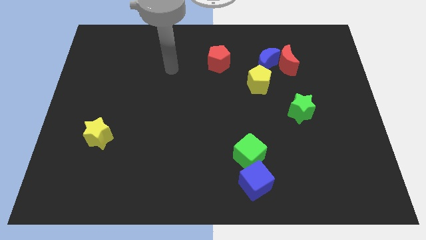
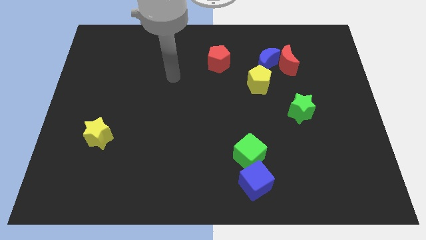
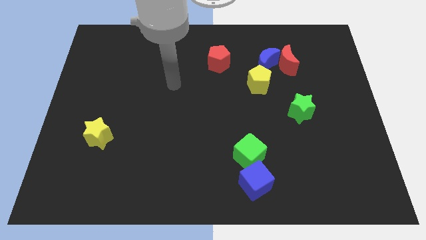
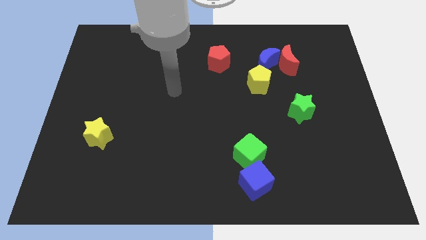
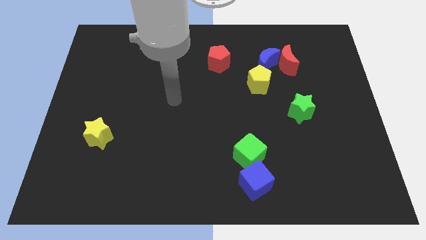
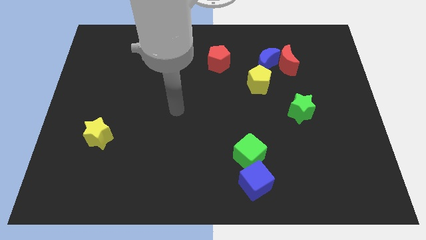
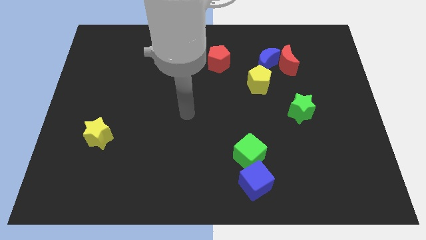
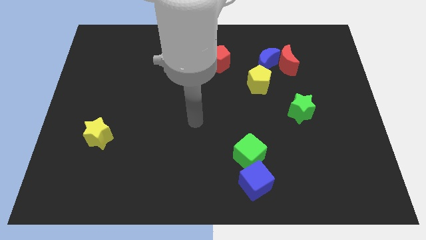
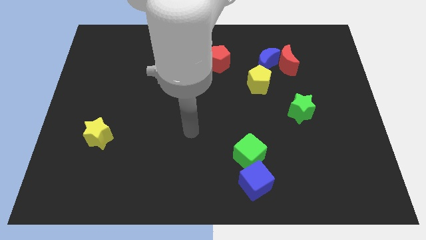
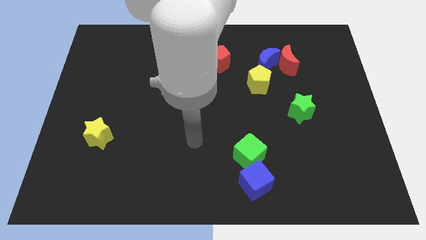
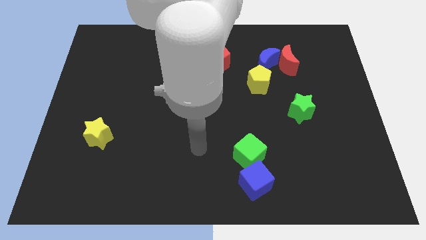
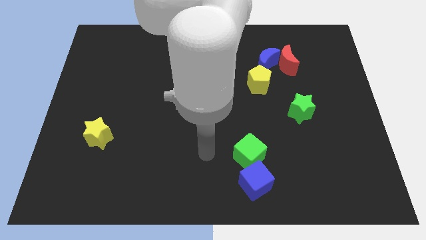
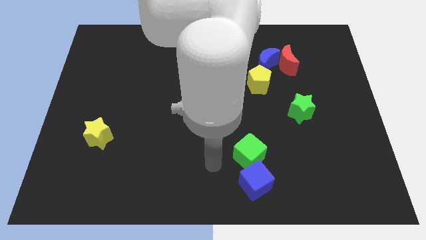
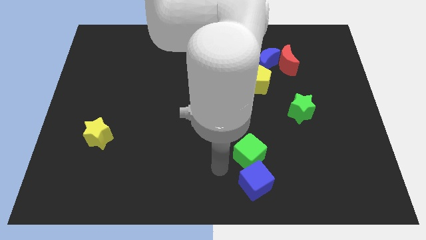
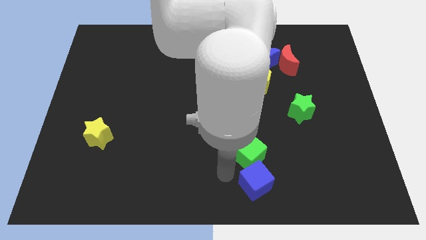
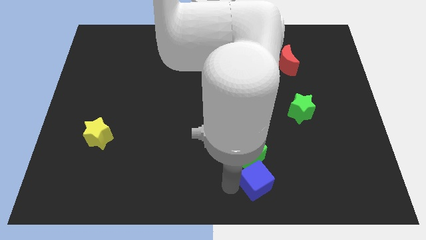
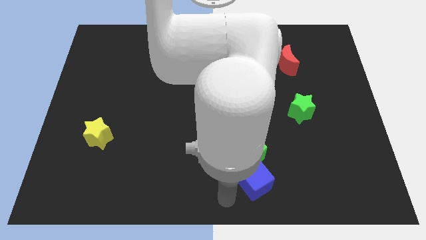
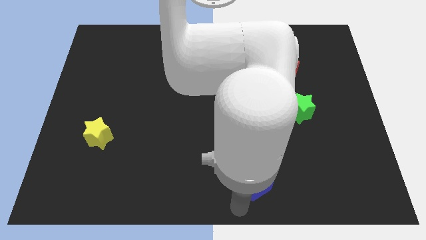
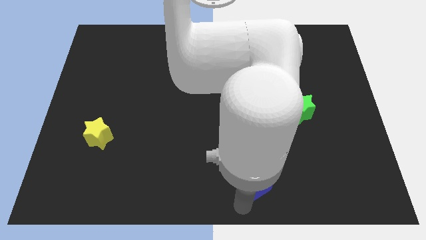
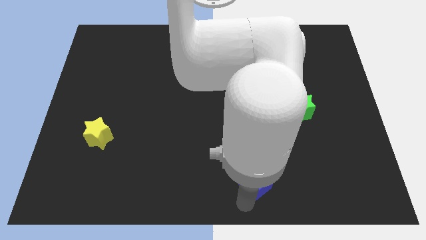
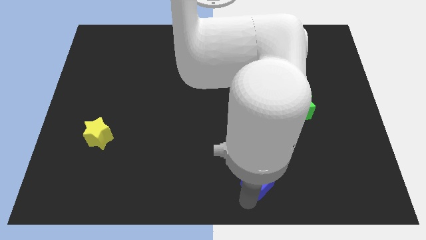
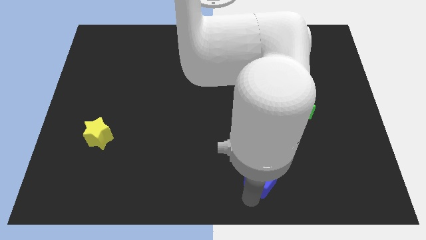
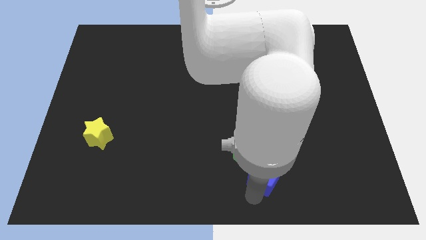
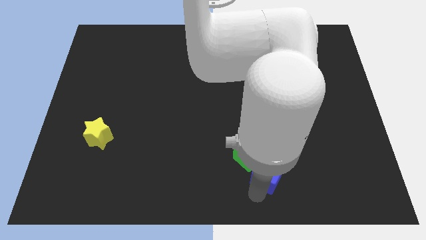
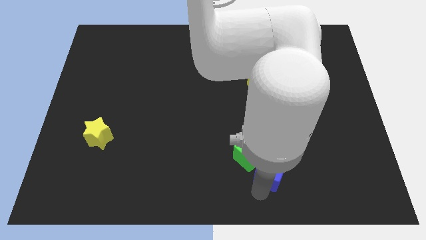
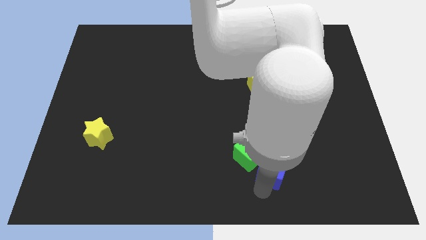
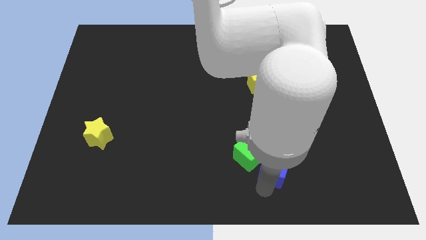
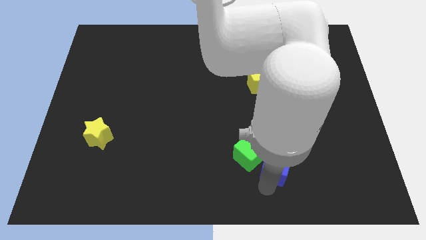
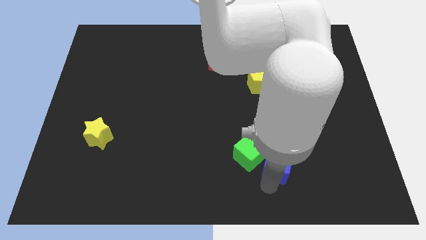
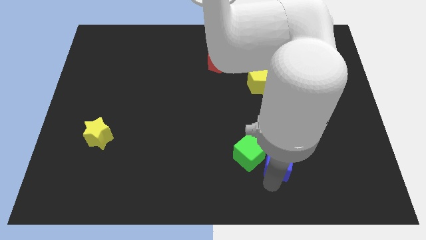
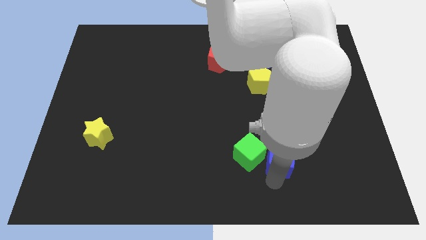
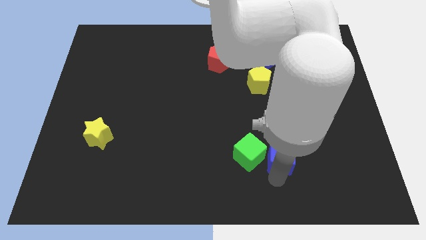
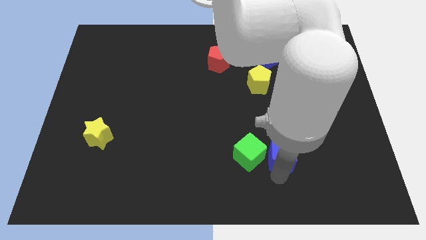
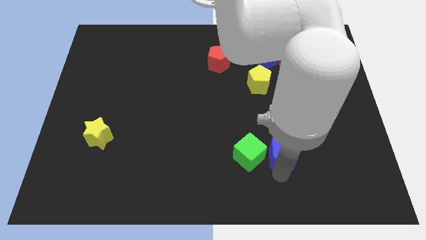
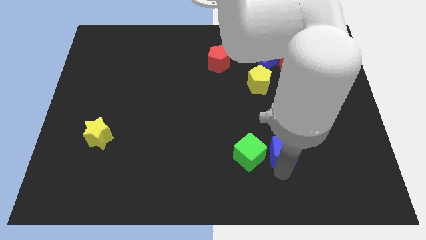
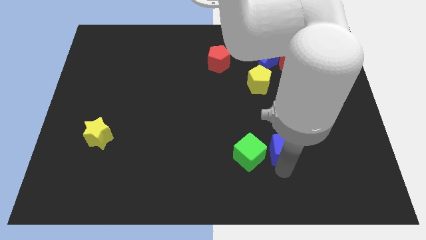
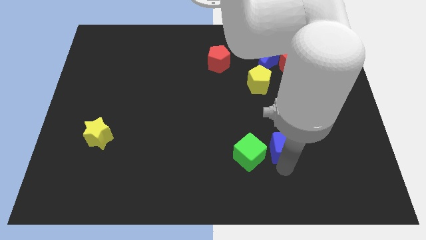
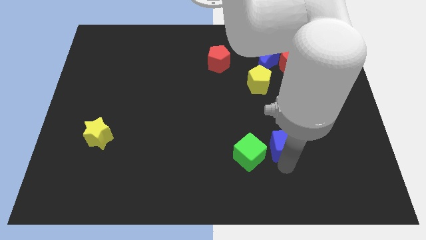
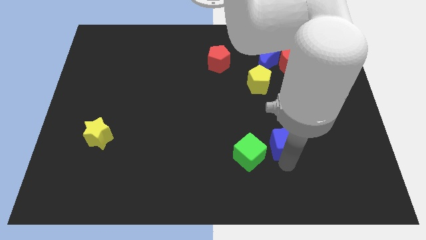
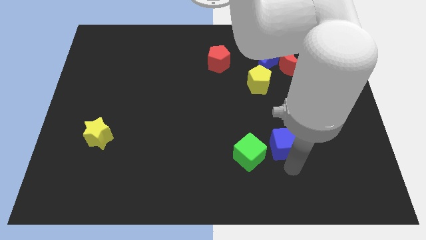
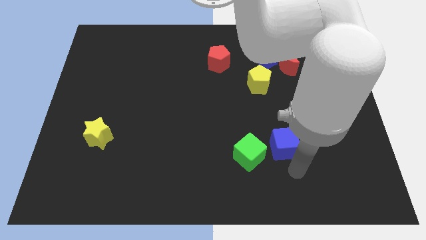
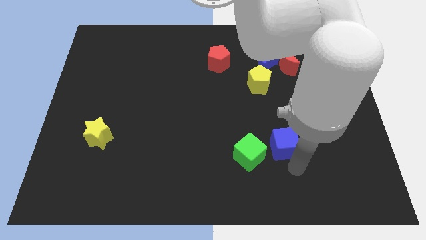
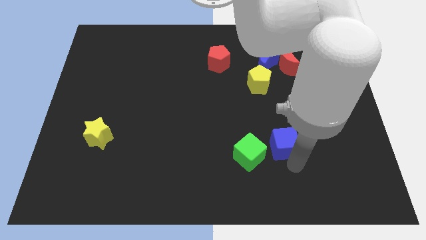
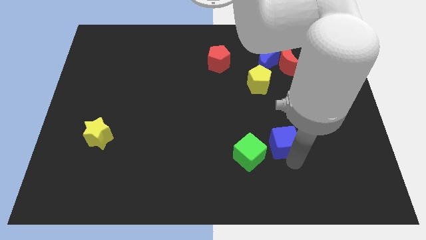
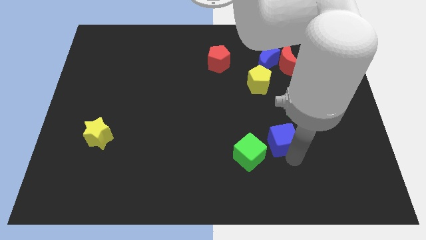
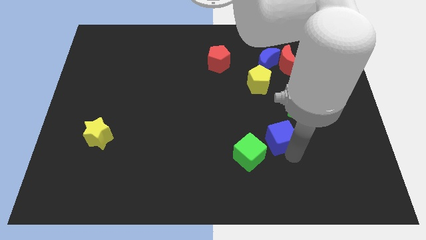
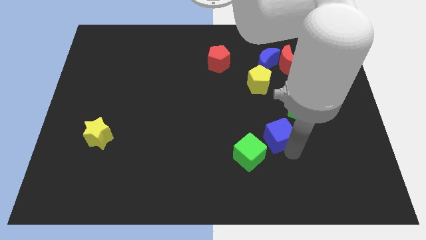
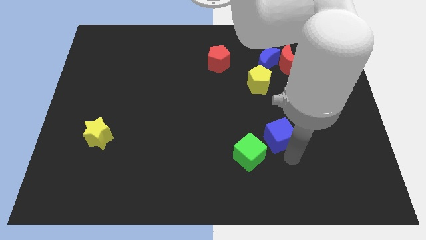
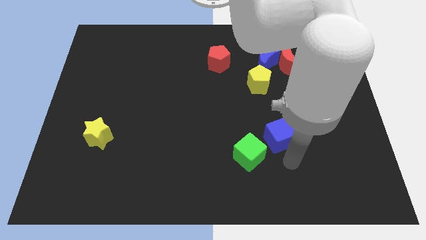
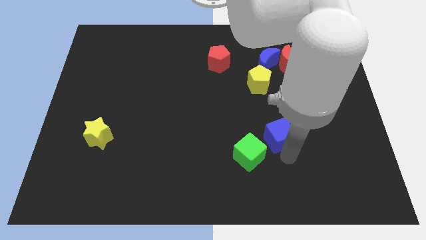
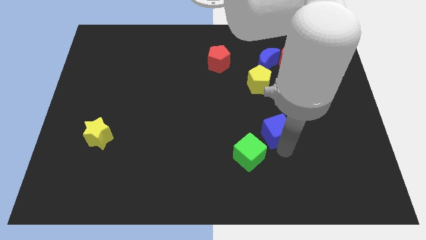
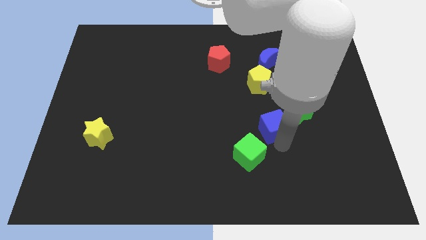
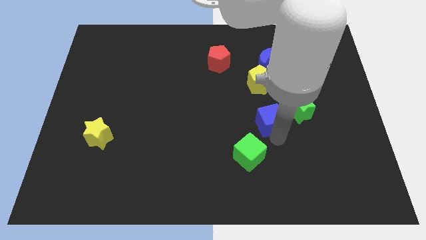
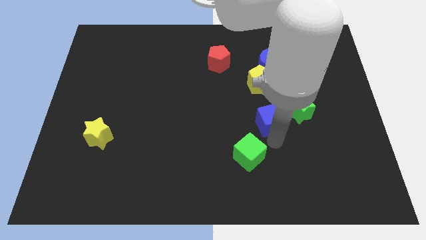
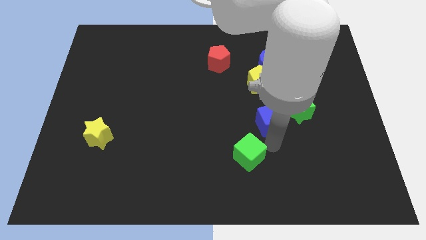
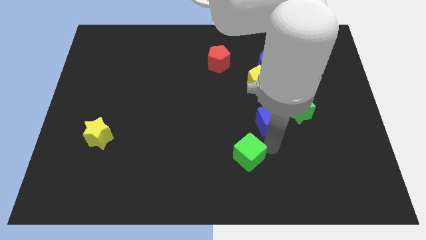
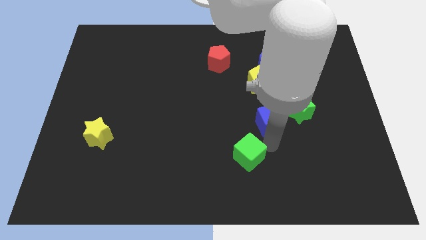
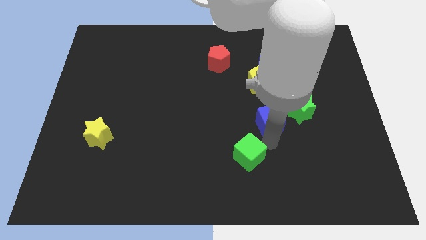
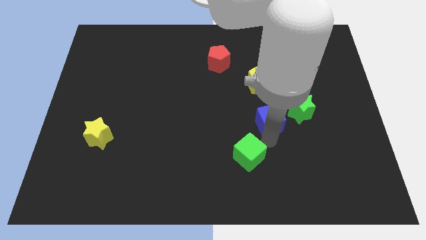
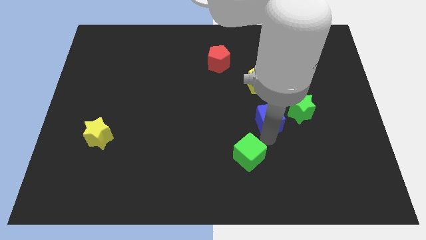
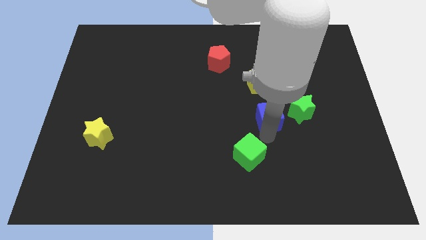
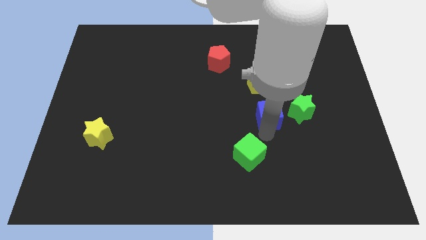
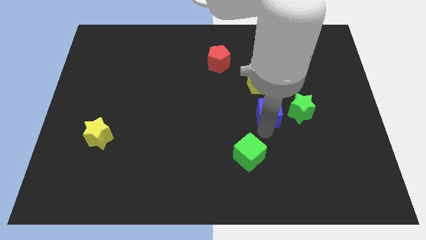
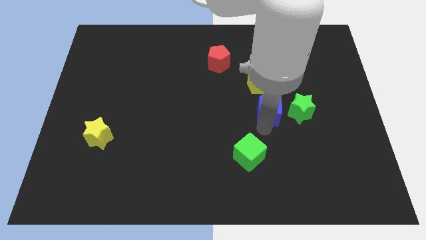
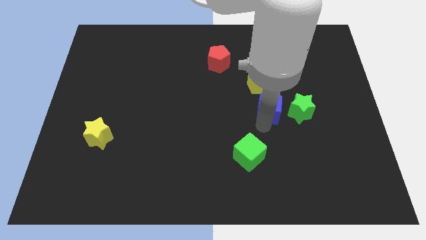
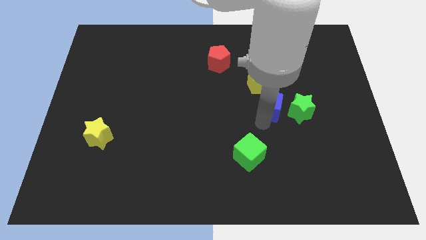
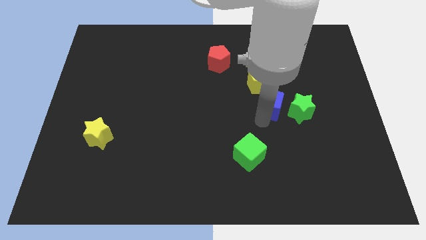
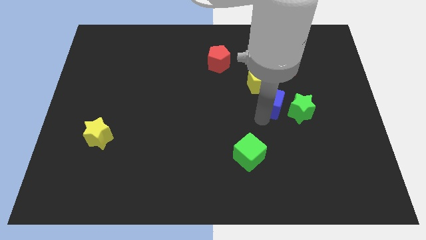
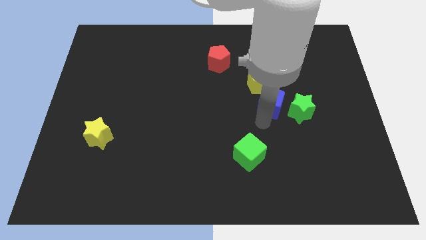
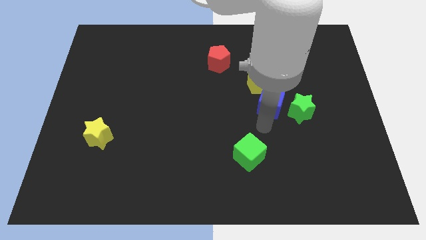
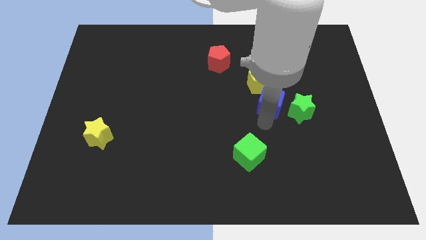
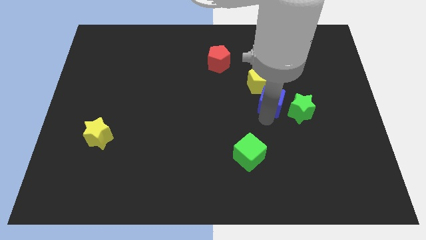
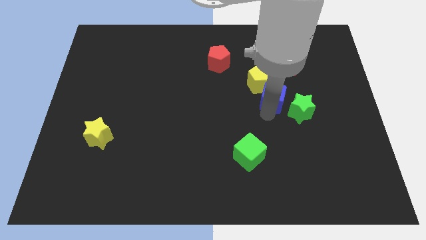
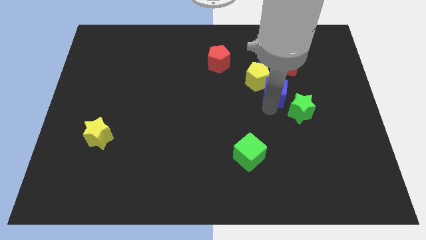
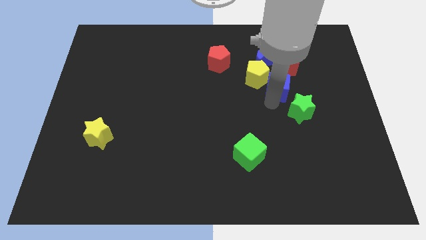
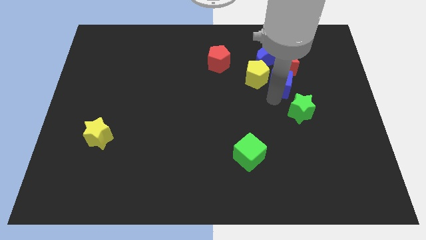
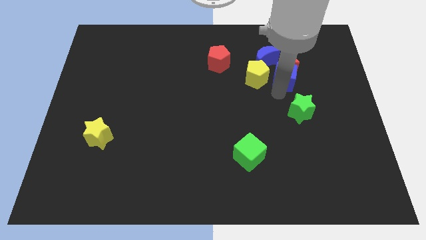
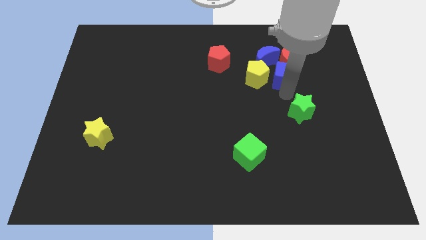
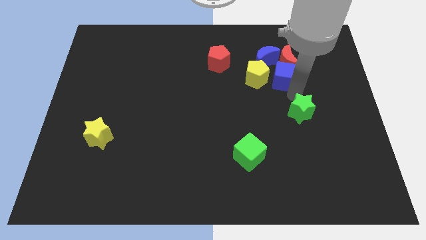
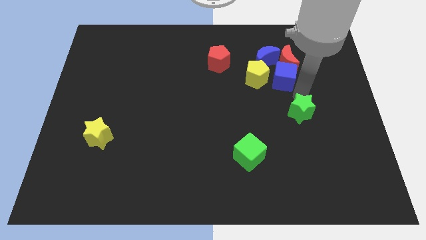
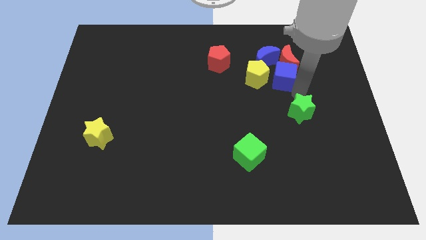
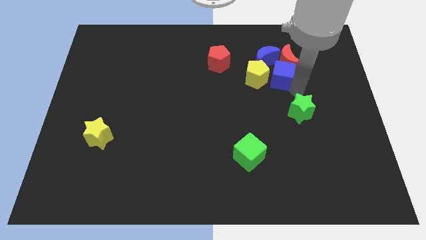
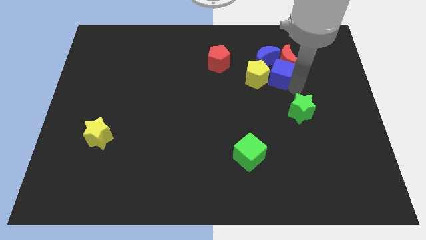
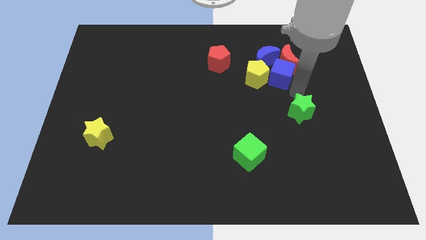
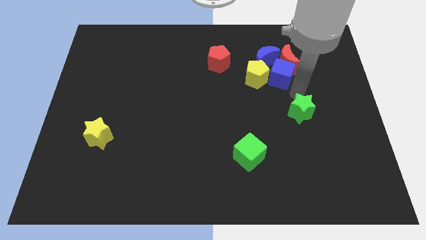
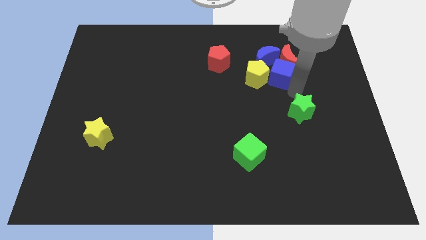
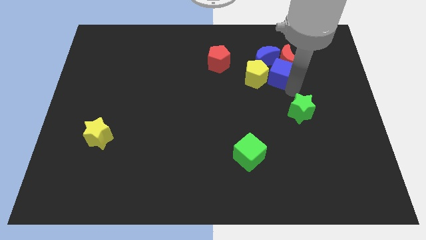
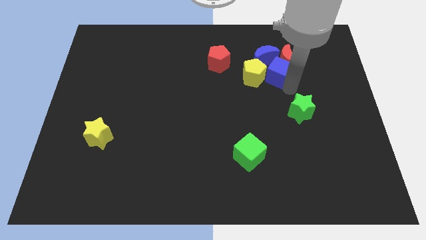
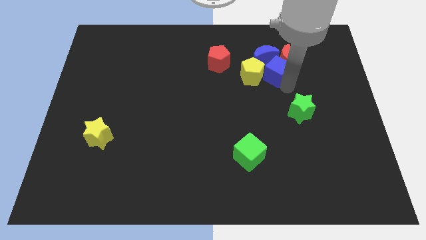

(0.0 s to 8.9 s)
slide the blue cube towards the blue moon
